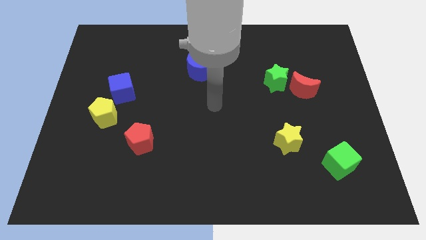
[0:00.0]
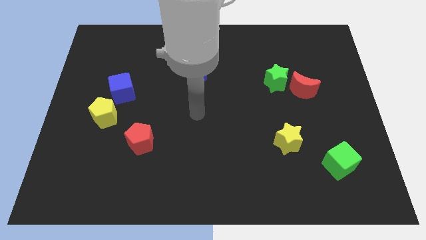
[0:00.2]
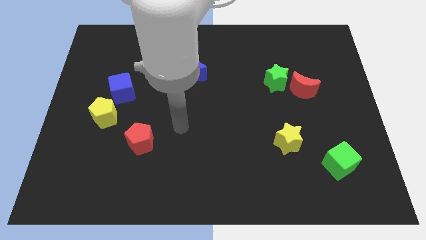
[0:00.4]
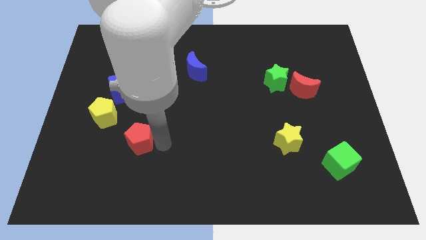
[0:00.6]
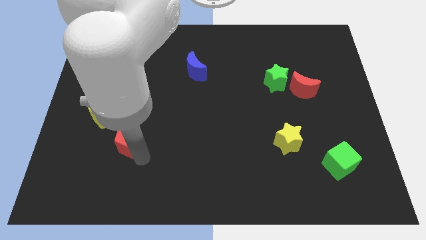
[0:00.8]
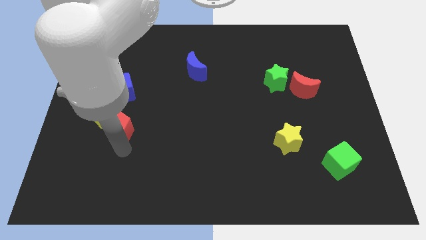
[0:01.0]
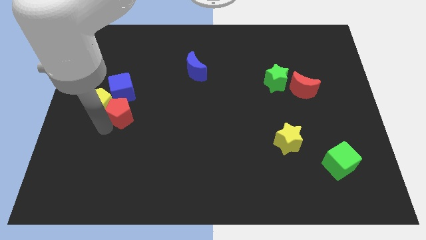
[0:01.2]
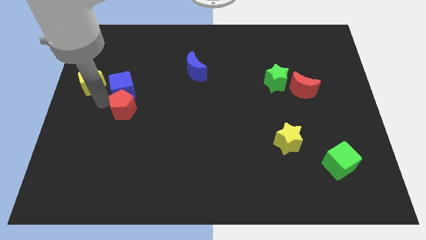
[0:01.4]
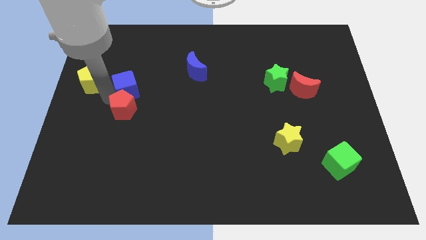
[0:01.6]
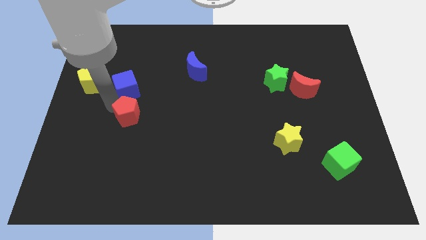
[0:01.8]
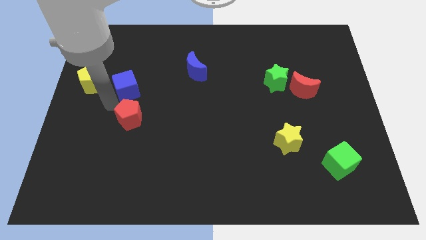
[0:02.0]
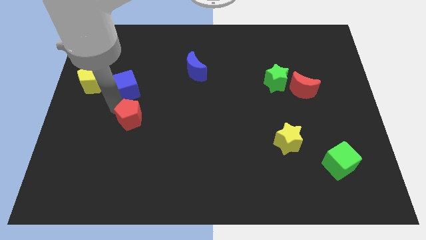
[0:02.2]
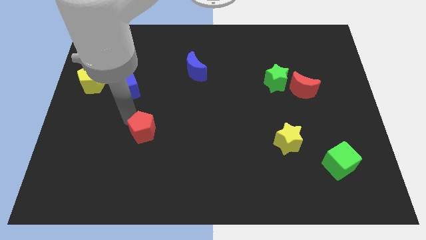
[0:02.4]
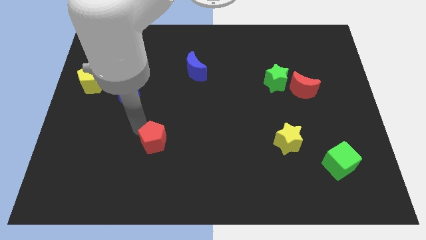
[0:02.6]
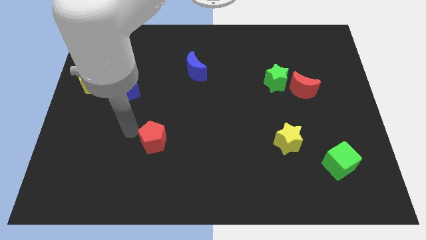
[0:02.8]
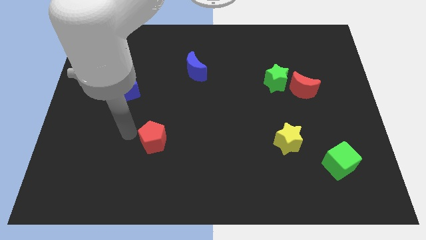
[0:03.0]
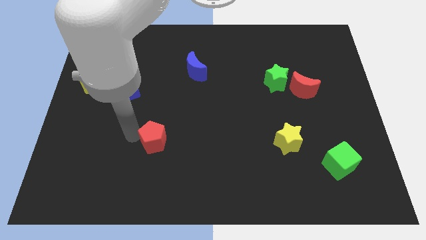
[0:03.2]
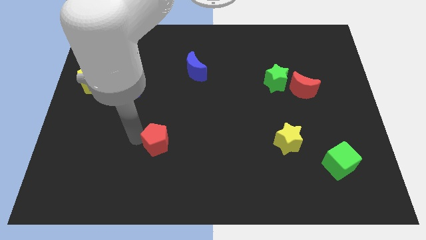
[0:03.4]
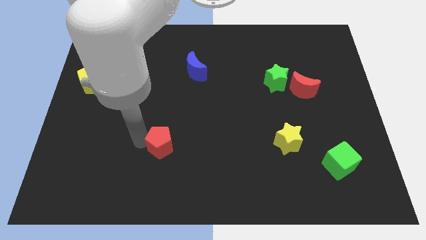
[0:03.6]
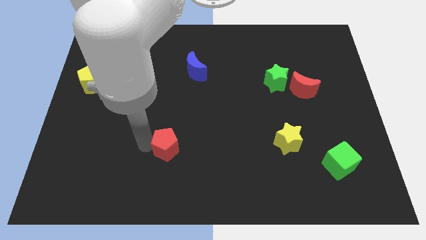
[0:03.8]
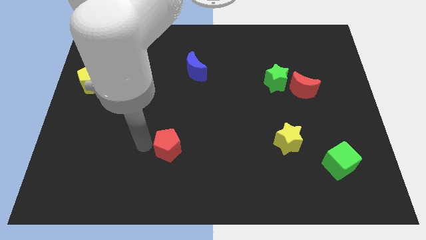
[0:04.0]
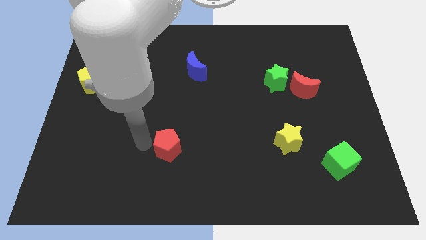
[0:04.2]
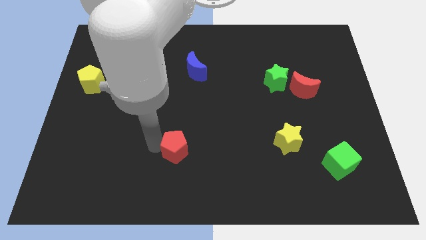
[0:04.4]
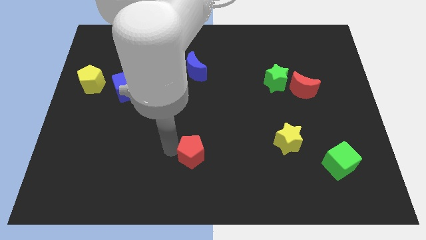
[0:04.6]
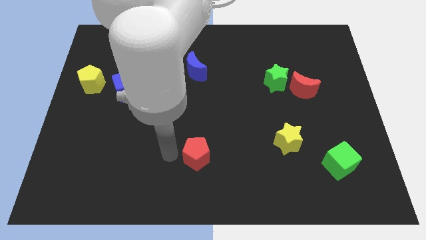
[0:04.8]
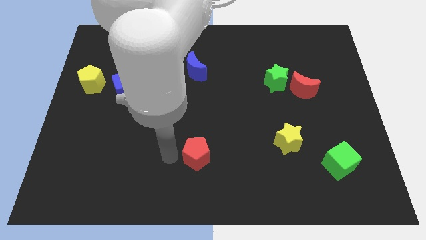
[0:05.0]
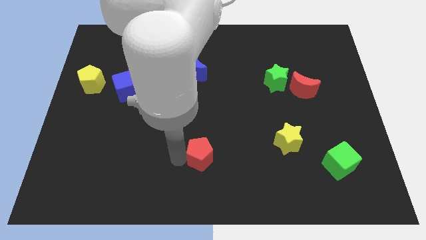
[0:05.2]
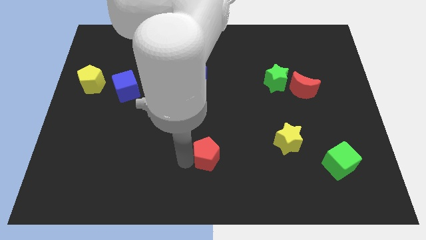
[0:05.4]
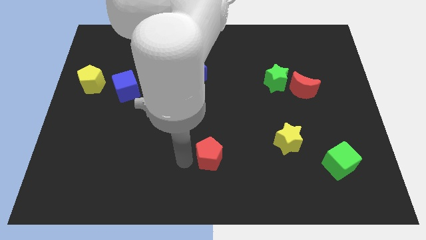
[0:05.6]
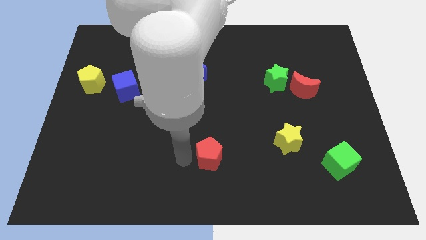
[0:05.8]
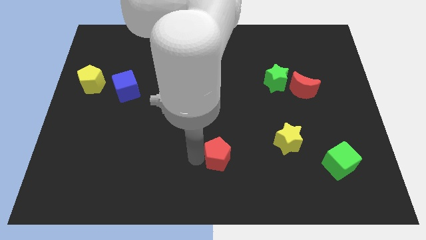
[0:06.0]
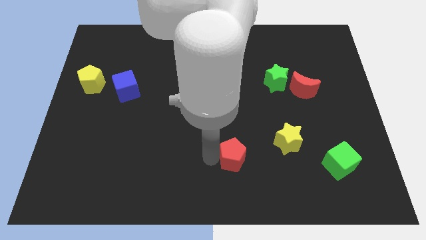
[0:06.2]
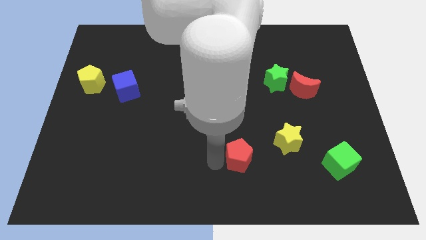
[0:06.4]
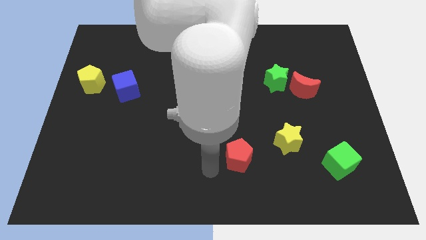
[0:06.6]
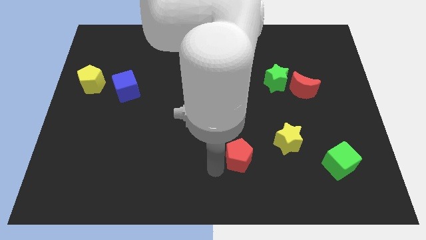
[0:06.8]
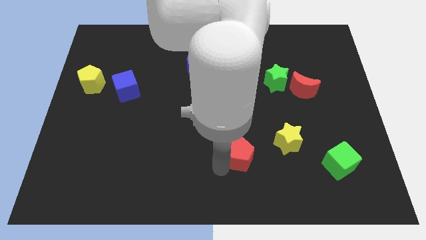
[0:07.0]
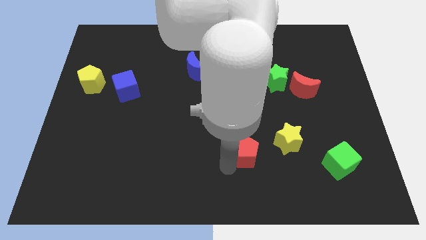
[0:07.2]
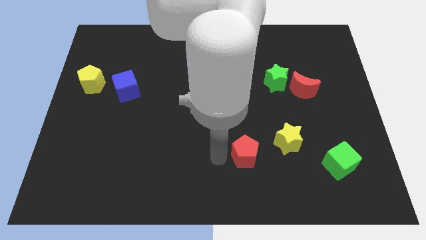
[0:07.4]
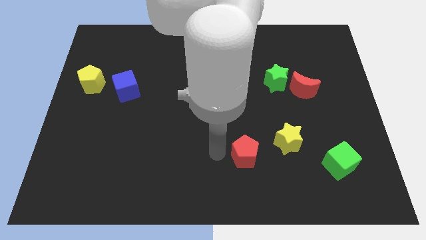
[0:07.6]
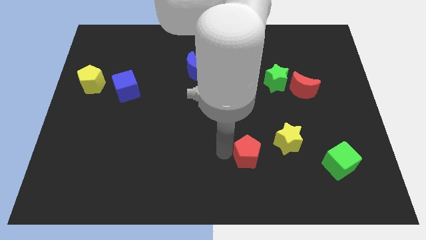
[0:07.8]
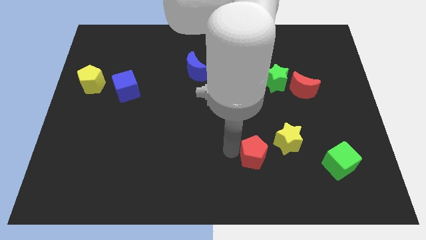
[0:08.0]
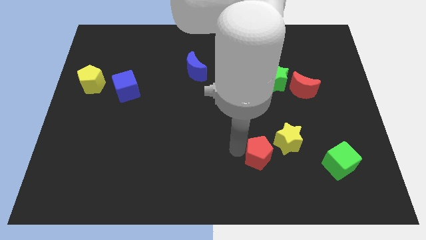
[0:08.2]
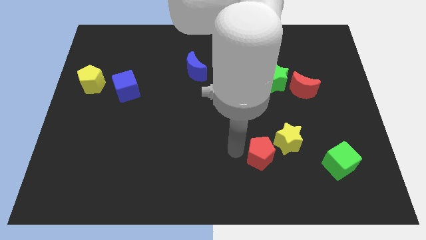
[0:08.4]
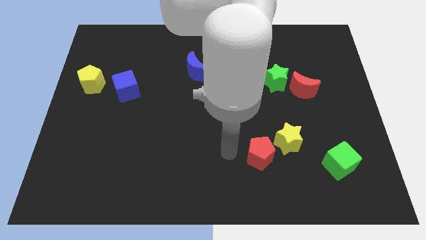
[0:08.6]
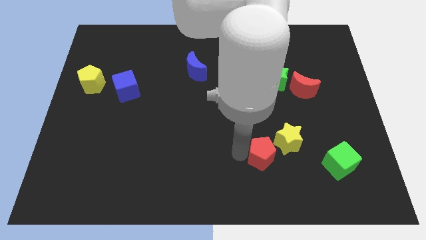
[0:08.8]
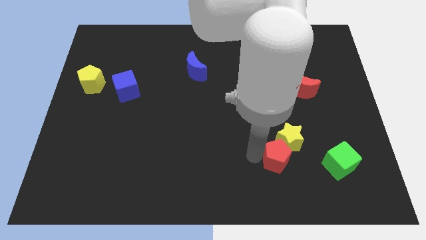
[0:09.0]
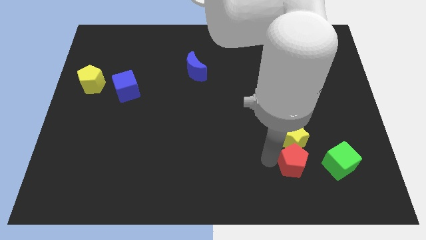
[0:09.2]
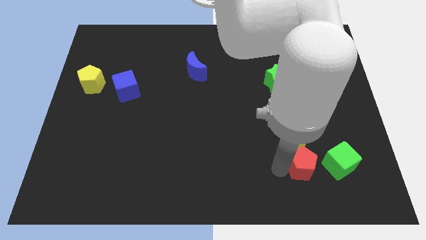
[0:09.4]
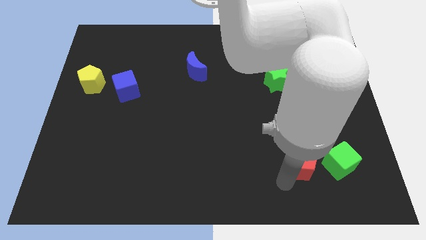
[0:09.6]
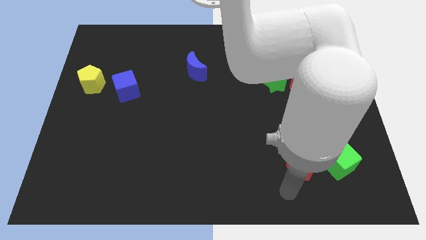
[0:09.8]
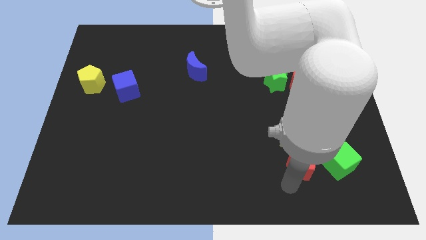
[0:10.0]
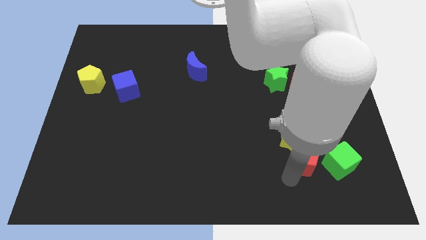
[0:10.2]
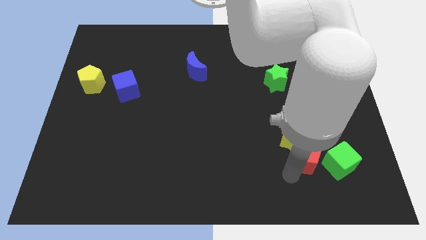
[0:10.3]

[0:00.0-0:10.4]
push the red pentagon diagonally up and to the left of the green cube

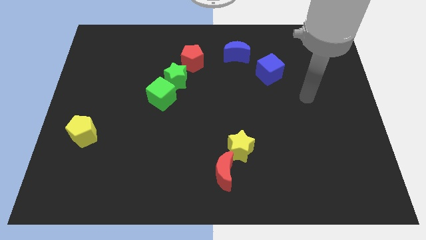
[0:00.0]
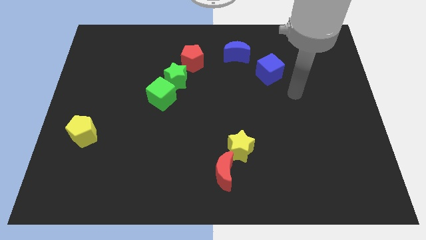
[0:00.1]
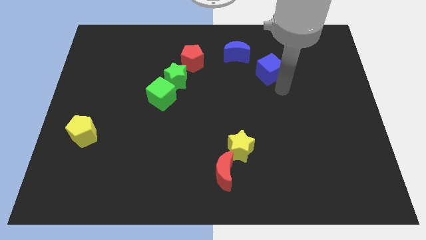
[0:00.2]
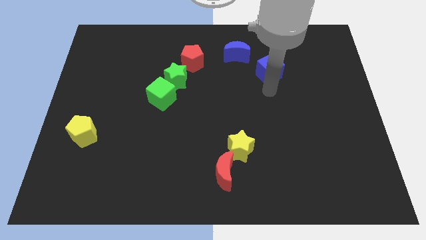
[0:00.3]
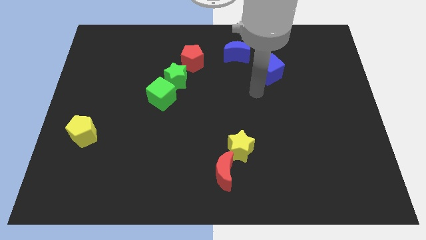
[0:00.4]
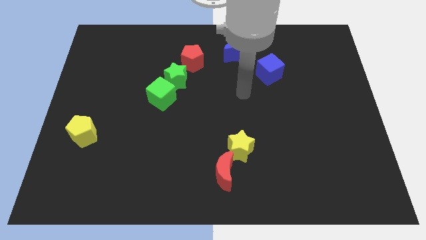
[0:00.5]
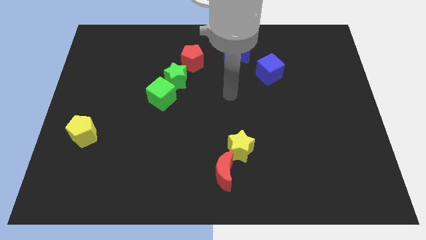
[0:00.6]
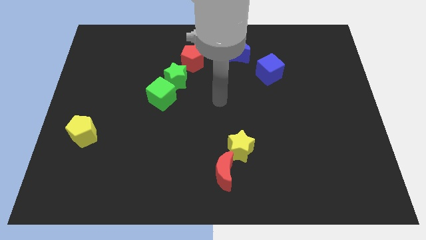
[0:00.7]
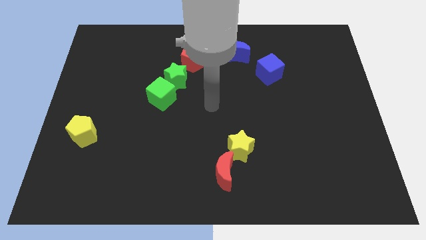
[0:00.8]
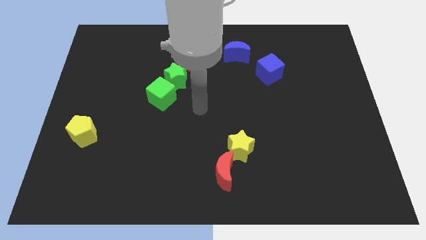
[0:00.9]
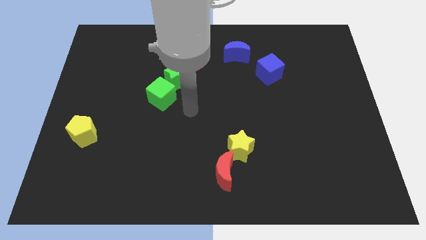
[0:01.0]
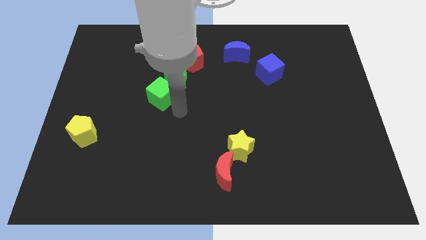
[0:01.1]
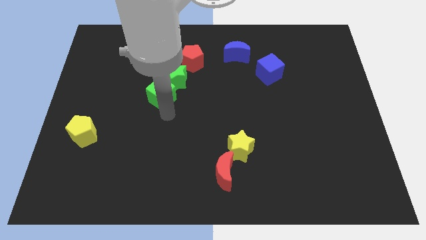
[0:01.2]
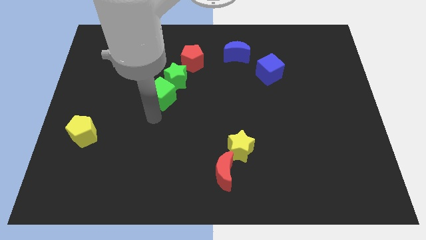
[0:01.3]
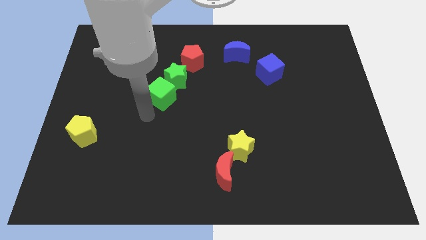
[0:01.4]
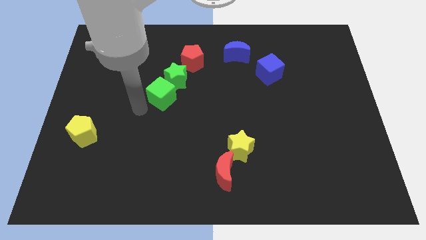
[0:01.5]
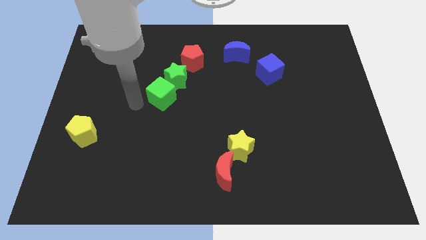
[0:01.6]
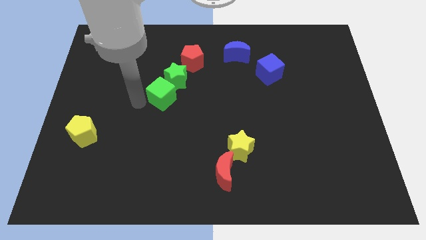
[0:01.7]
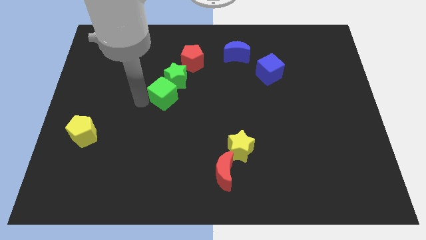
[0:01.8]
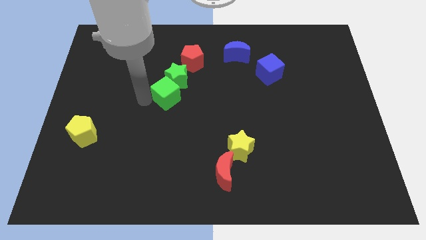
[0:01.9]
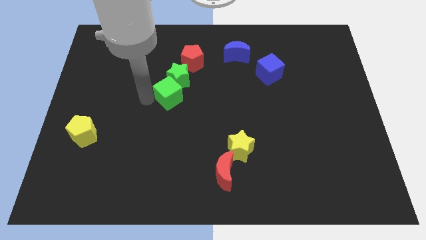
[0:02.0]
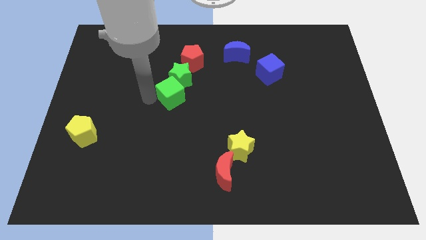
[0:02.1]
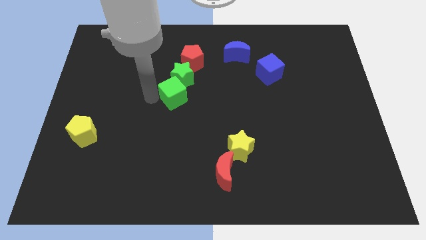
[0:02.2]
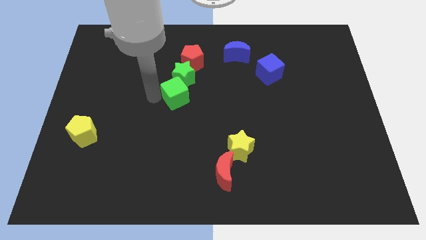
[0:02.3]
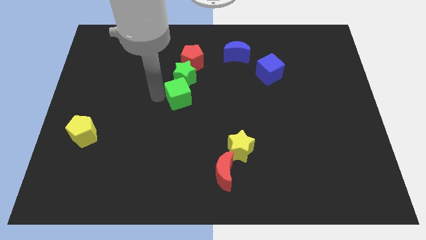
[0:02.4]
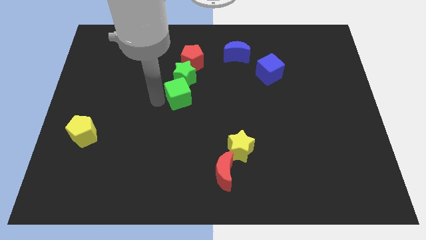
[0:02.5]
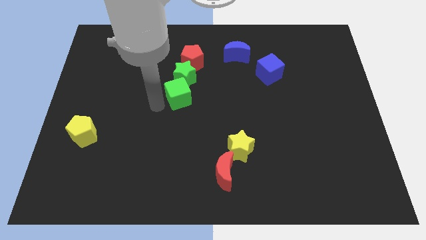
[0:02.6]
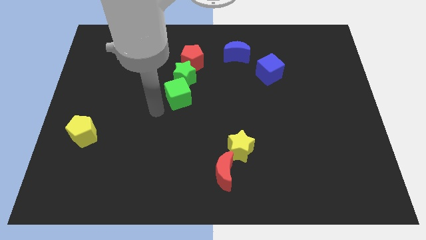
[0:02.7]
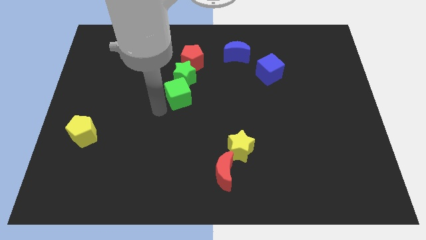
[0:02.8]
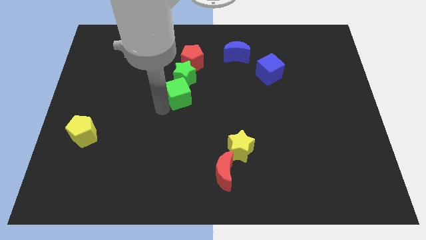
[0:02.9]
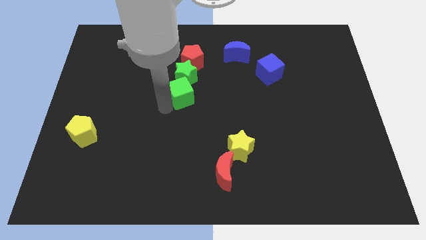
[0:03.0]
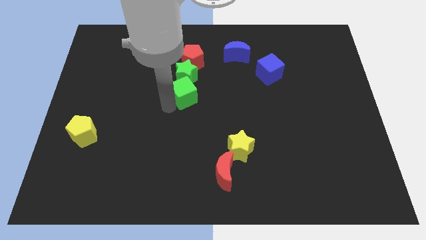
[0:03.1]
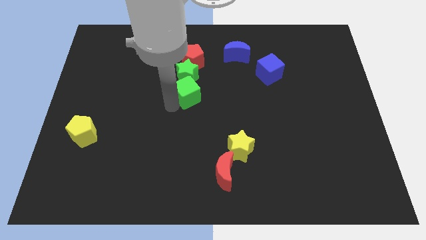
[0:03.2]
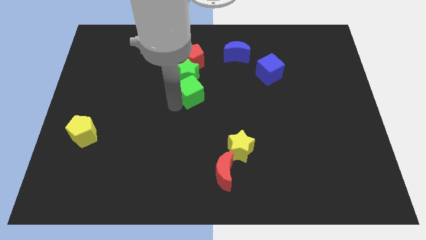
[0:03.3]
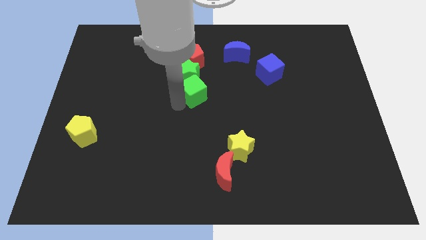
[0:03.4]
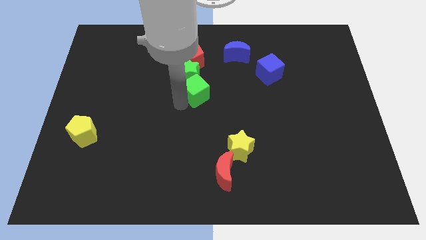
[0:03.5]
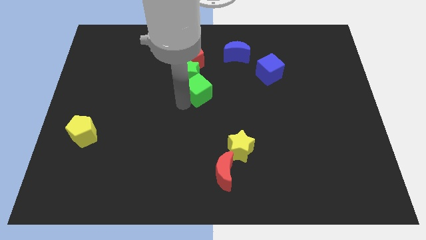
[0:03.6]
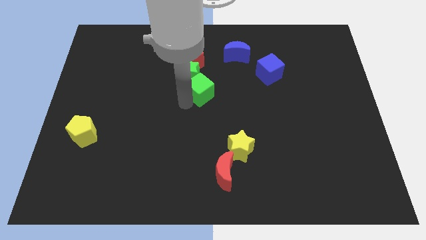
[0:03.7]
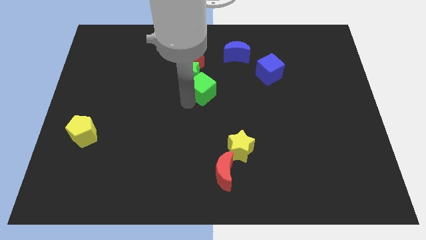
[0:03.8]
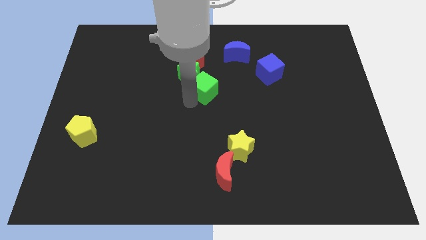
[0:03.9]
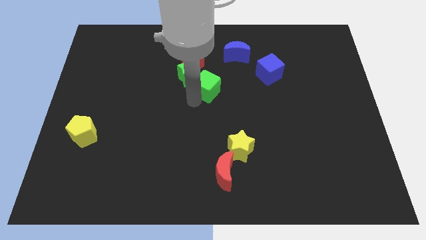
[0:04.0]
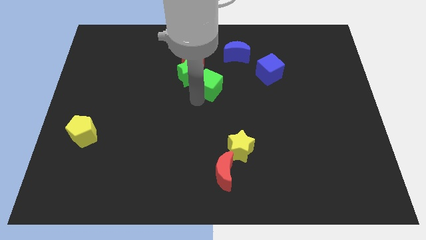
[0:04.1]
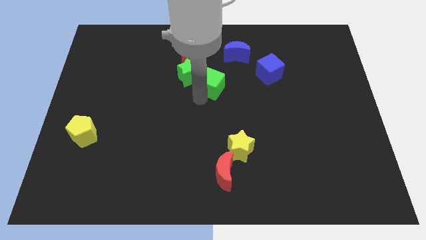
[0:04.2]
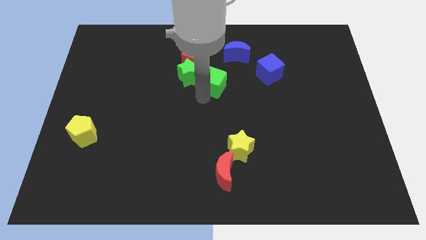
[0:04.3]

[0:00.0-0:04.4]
move the green cube diagonally down and to the left of the blue moon
